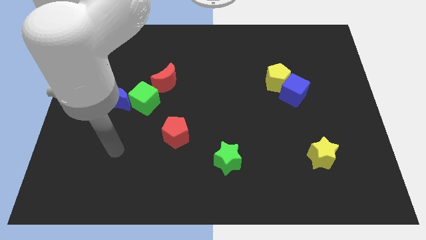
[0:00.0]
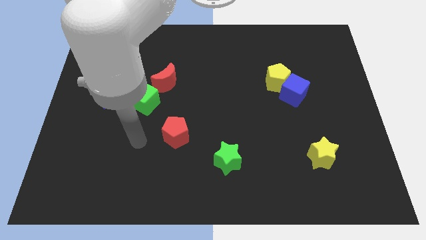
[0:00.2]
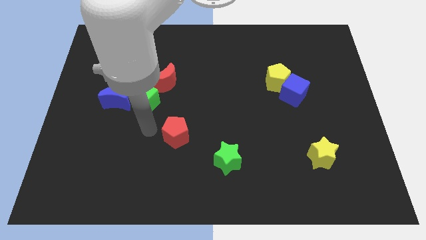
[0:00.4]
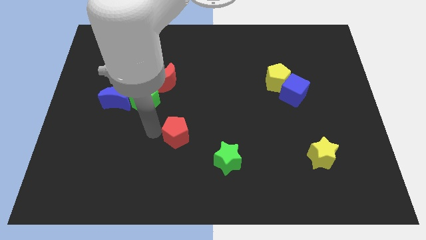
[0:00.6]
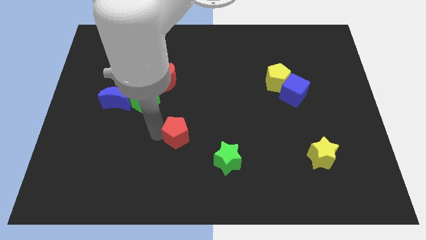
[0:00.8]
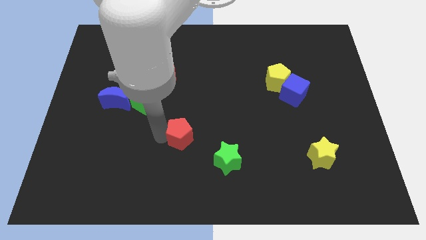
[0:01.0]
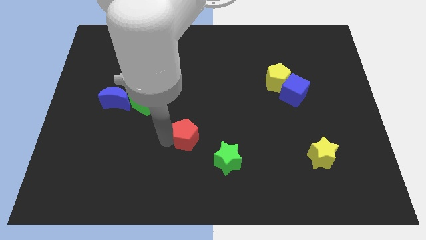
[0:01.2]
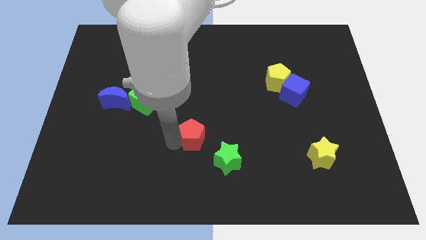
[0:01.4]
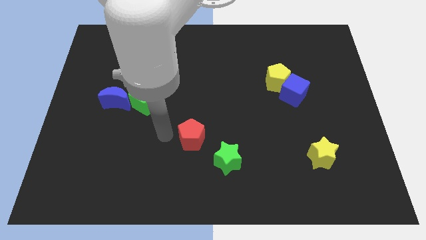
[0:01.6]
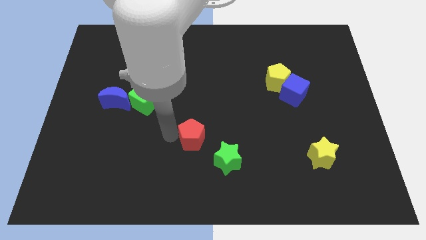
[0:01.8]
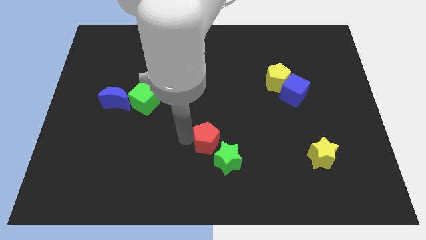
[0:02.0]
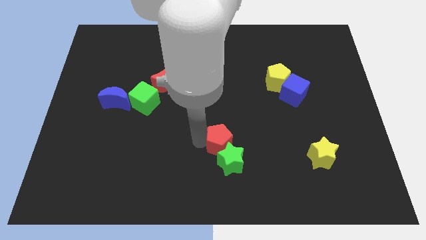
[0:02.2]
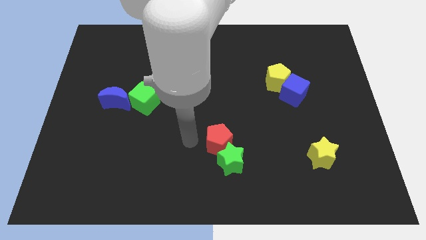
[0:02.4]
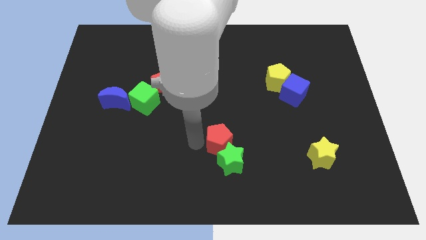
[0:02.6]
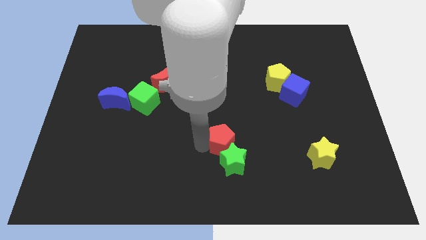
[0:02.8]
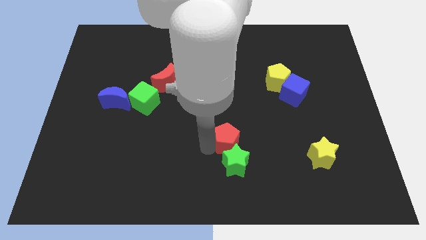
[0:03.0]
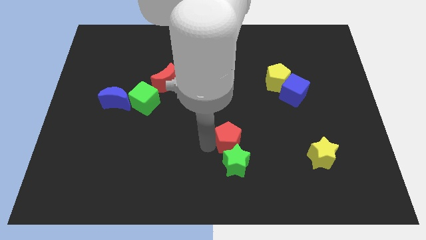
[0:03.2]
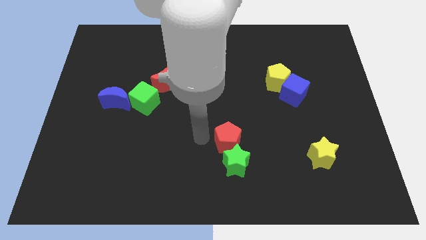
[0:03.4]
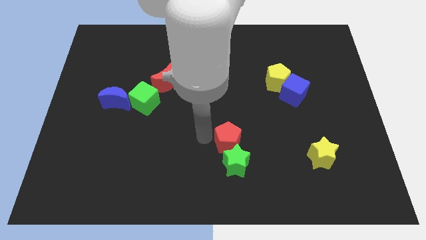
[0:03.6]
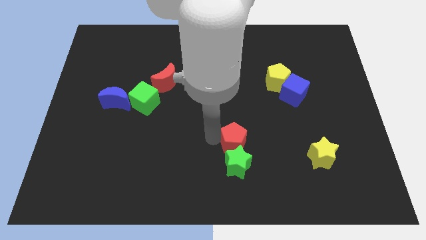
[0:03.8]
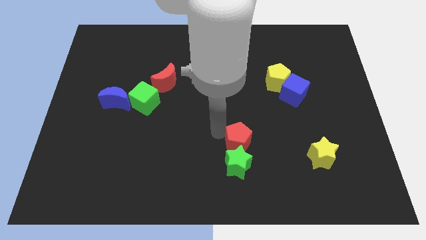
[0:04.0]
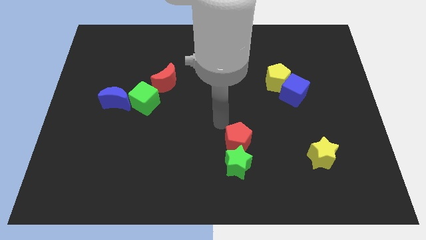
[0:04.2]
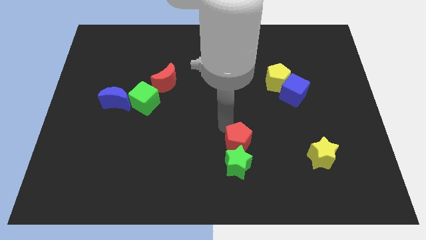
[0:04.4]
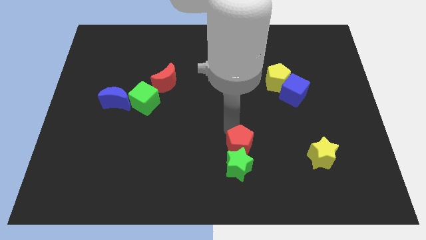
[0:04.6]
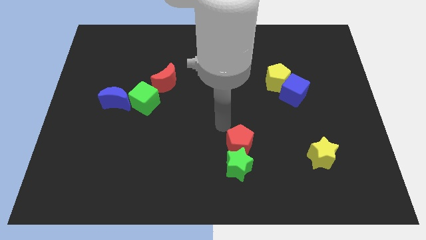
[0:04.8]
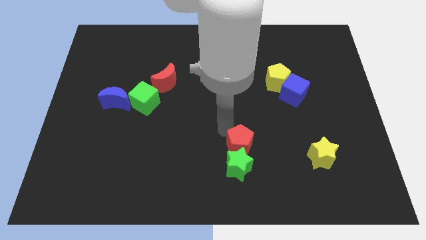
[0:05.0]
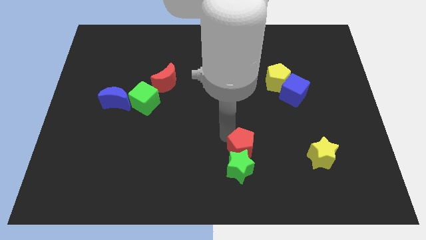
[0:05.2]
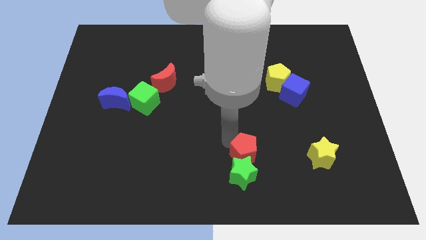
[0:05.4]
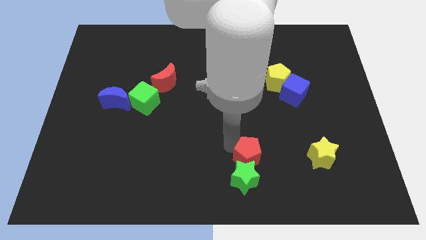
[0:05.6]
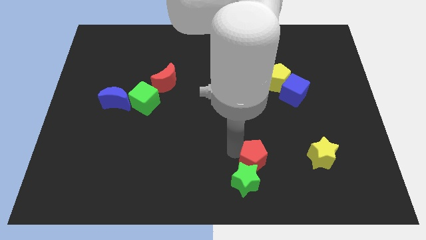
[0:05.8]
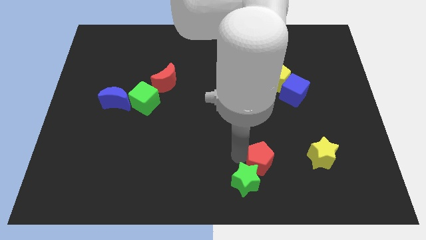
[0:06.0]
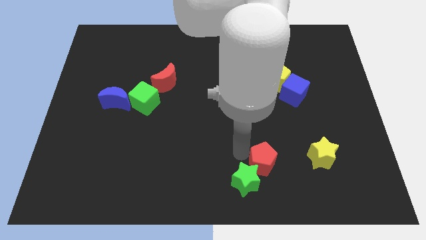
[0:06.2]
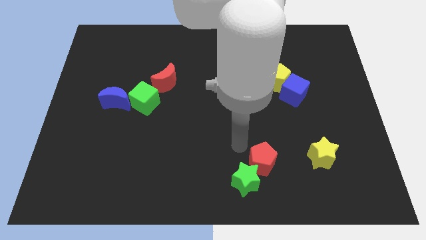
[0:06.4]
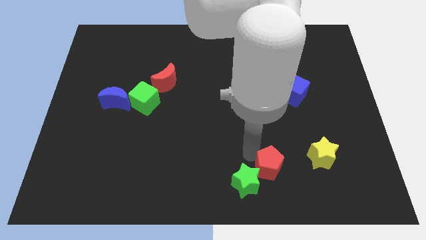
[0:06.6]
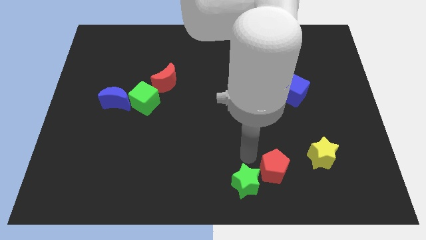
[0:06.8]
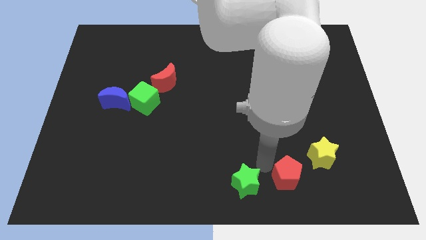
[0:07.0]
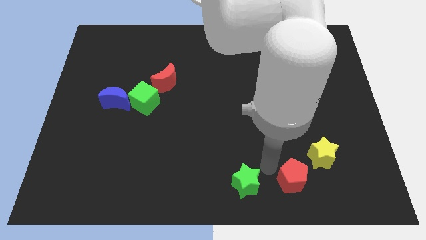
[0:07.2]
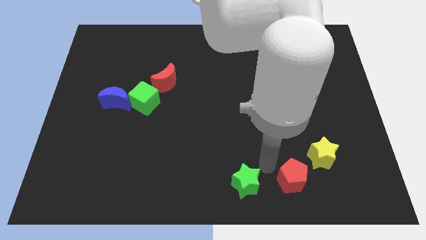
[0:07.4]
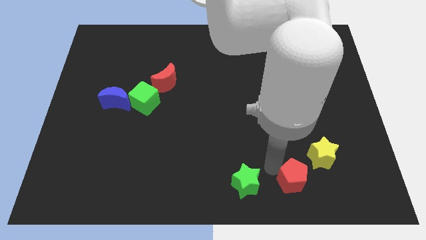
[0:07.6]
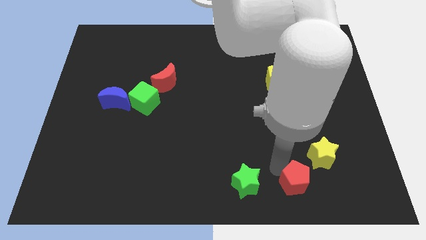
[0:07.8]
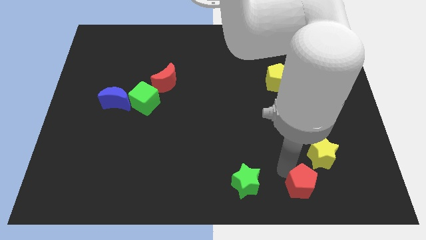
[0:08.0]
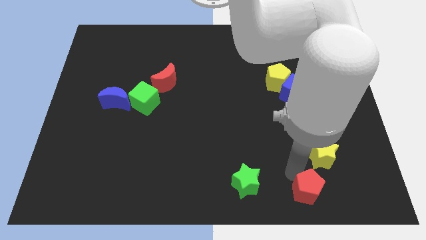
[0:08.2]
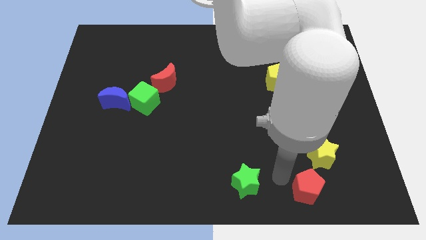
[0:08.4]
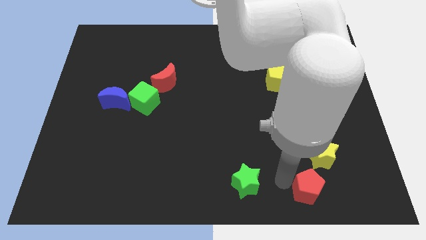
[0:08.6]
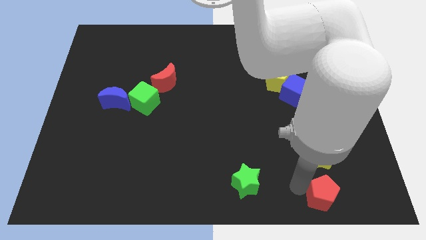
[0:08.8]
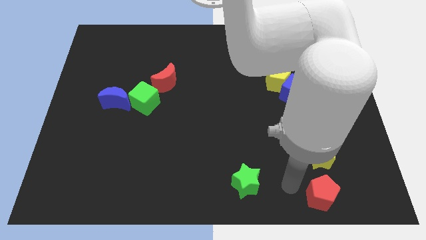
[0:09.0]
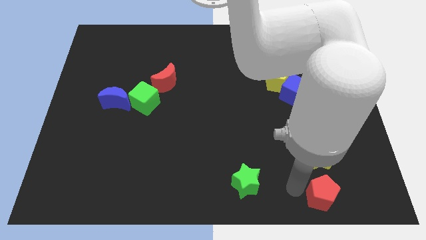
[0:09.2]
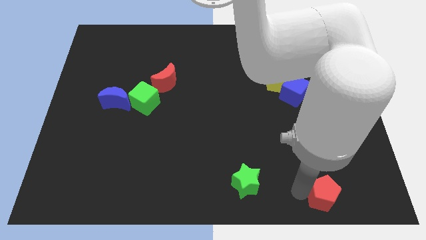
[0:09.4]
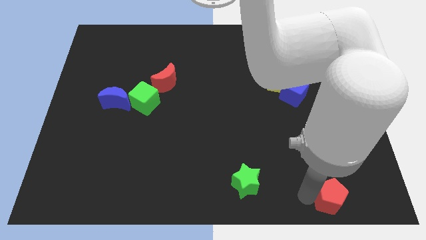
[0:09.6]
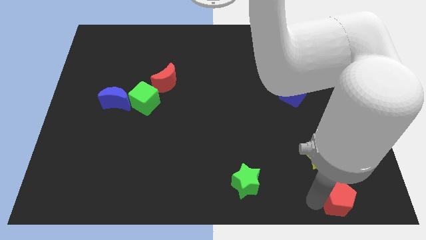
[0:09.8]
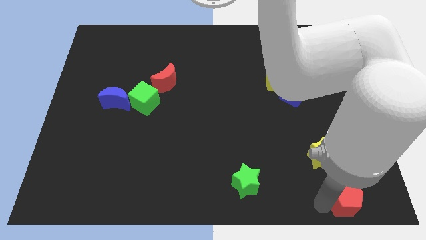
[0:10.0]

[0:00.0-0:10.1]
slide the red pentagon to the lower right corner

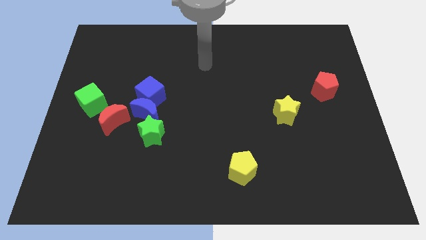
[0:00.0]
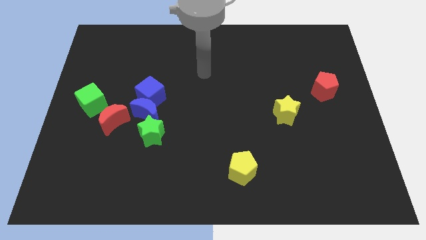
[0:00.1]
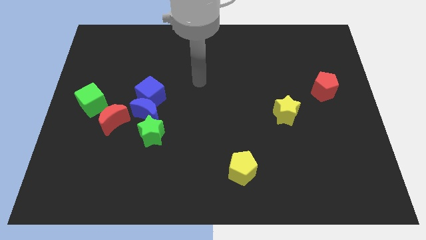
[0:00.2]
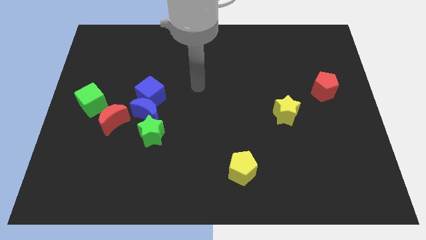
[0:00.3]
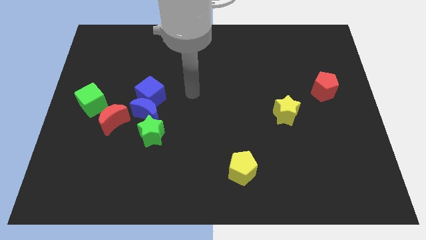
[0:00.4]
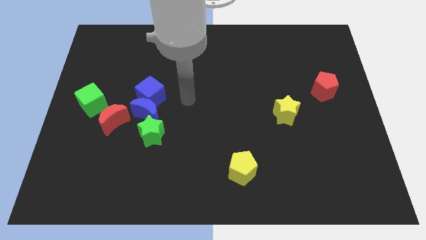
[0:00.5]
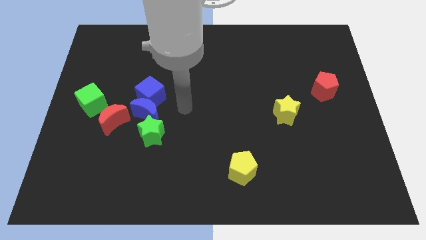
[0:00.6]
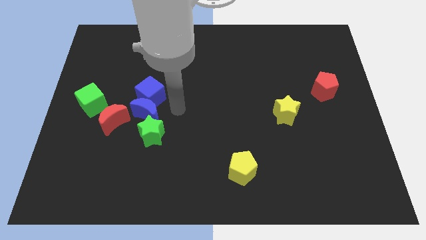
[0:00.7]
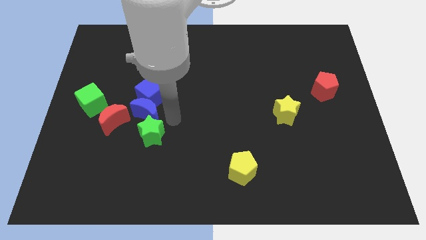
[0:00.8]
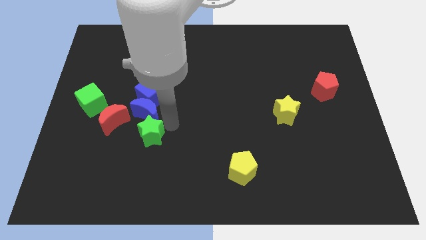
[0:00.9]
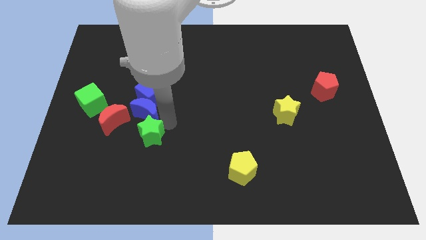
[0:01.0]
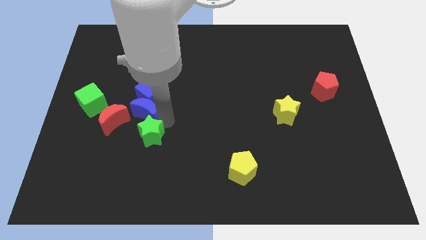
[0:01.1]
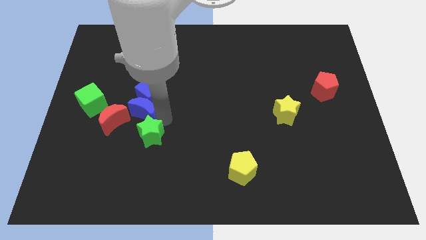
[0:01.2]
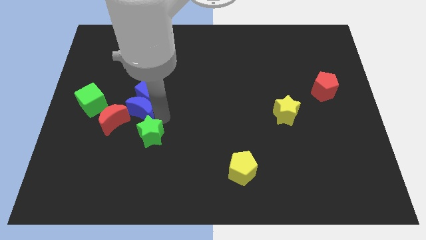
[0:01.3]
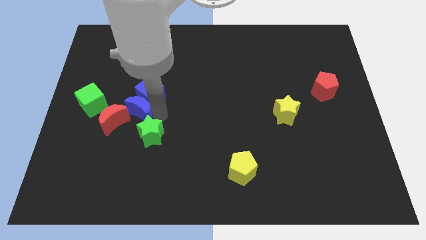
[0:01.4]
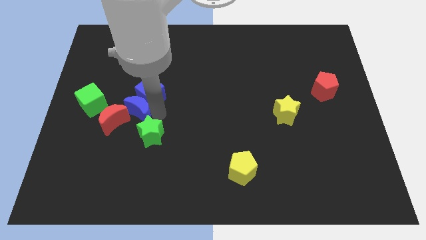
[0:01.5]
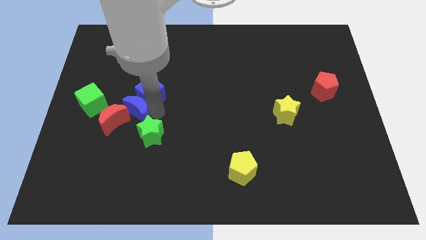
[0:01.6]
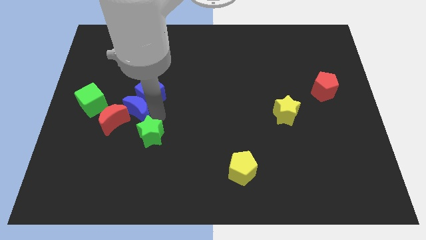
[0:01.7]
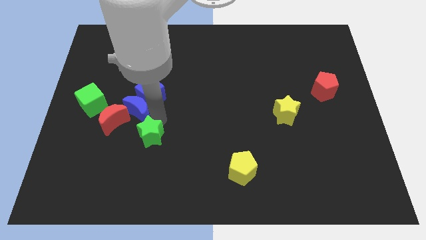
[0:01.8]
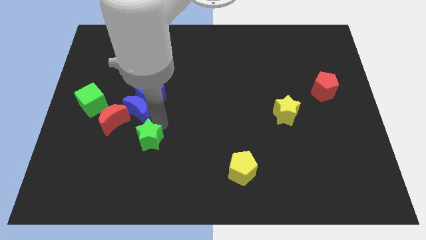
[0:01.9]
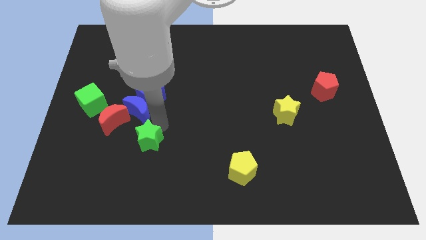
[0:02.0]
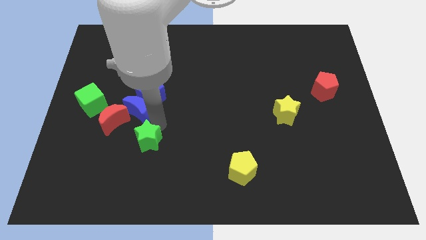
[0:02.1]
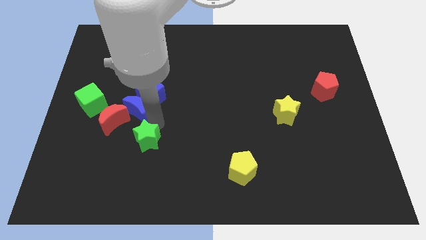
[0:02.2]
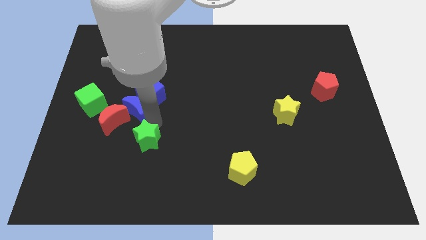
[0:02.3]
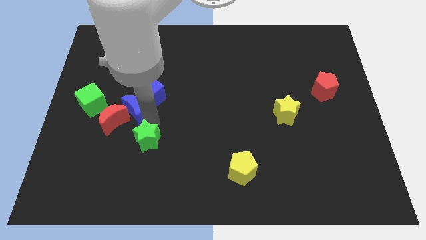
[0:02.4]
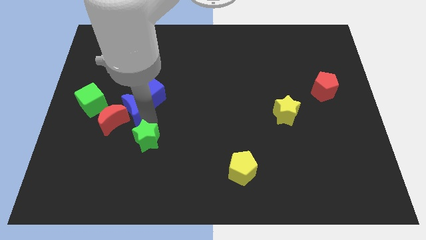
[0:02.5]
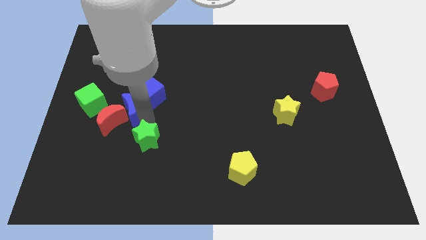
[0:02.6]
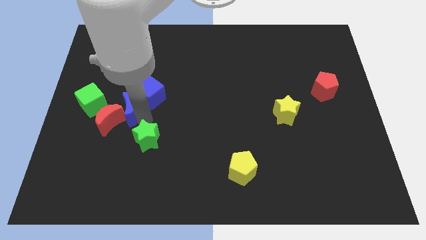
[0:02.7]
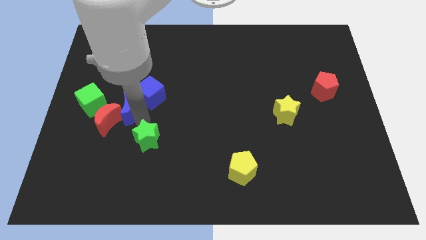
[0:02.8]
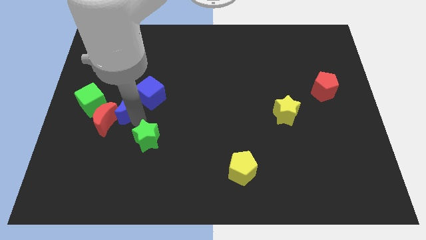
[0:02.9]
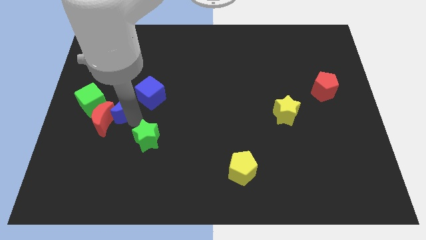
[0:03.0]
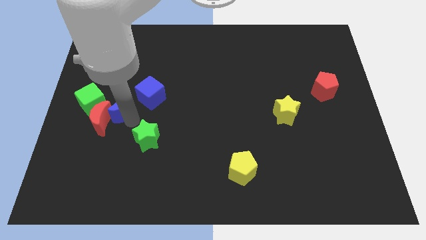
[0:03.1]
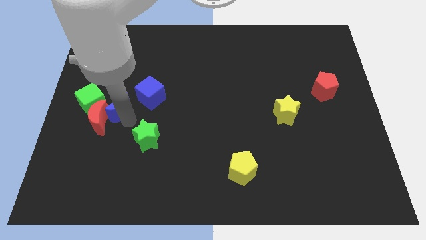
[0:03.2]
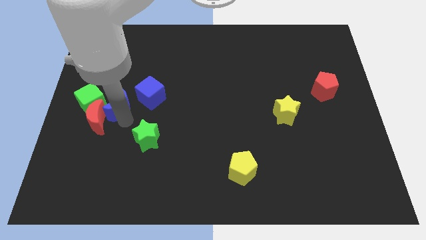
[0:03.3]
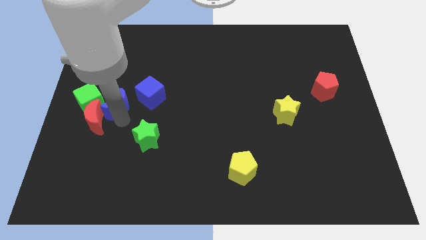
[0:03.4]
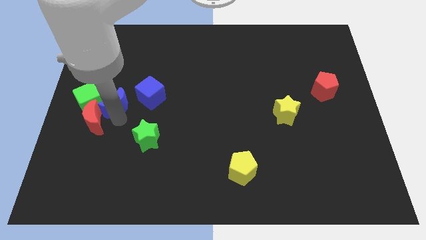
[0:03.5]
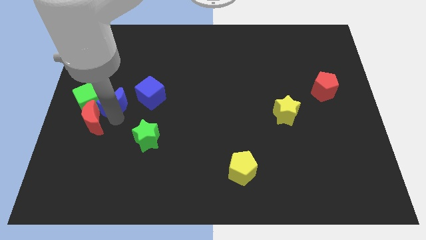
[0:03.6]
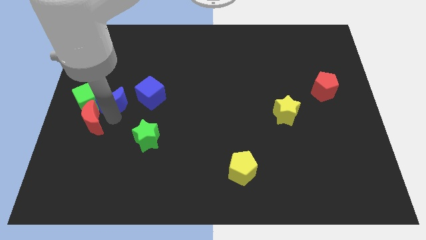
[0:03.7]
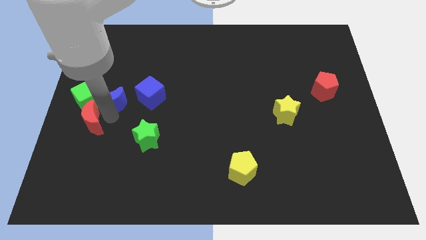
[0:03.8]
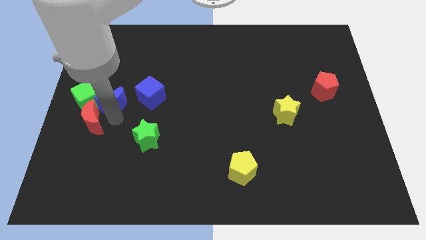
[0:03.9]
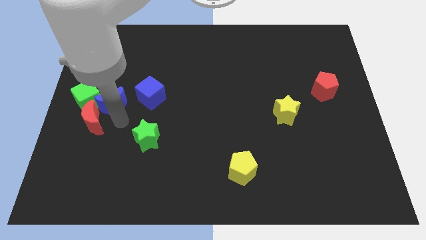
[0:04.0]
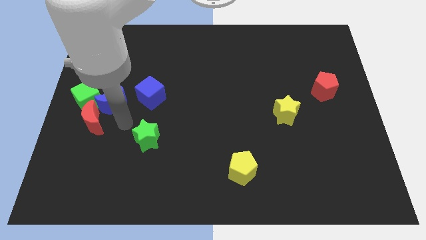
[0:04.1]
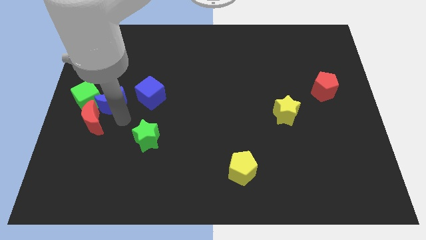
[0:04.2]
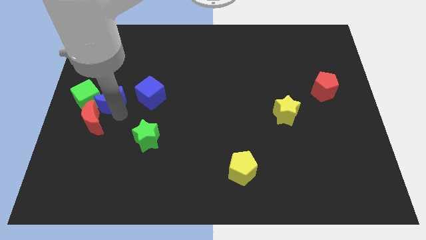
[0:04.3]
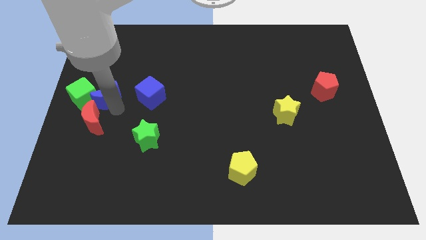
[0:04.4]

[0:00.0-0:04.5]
slide the blue moon to the center left
